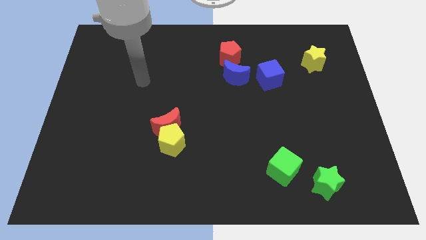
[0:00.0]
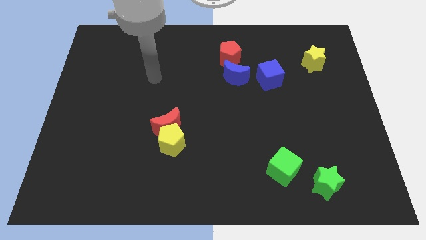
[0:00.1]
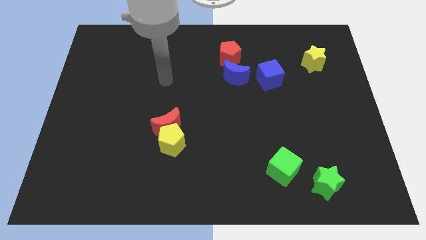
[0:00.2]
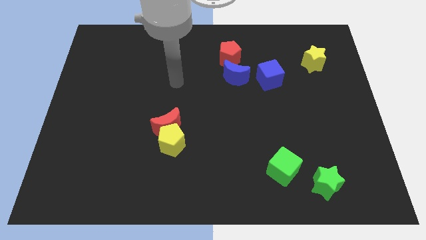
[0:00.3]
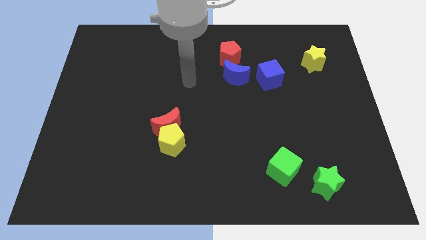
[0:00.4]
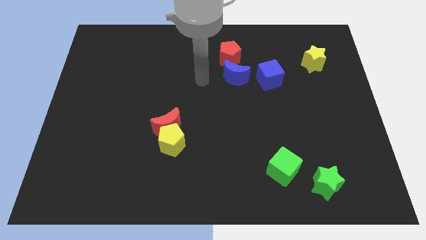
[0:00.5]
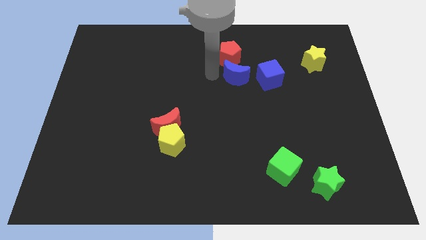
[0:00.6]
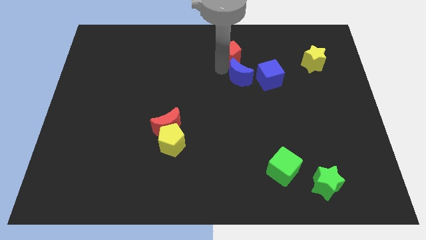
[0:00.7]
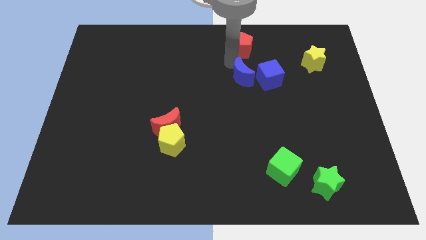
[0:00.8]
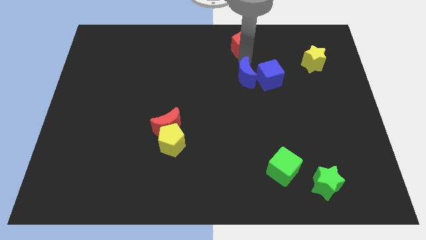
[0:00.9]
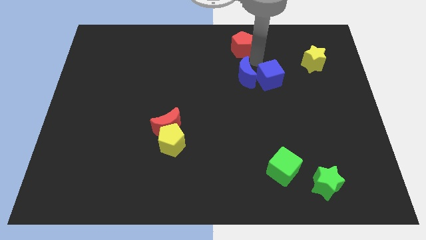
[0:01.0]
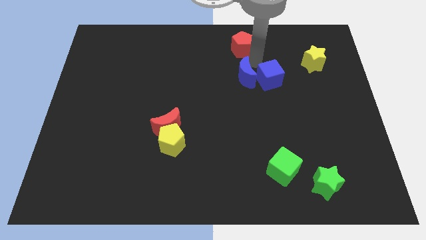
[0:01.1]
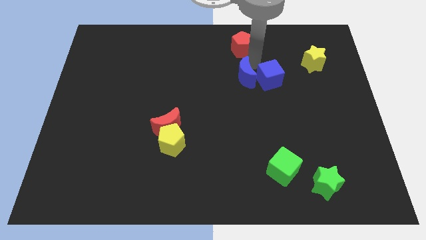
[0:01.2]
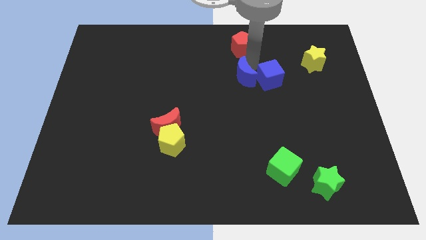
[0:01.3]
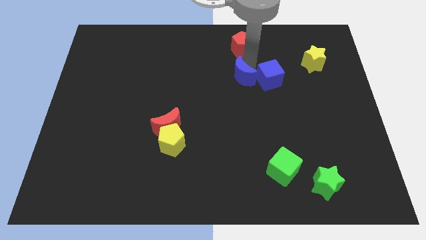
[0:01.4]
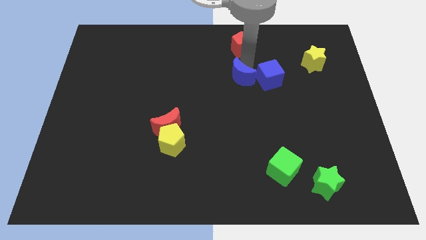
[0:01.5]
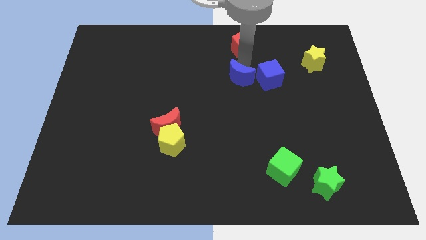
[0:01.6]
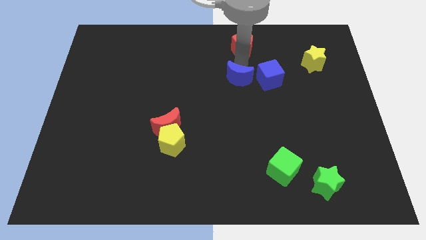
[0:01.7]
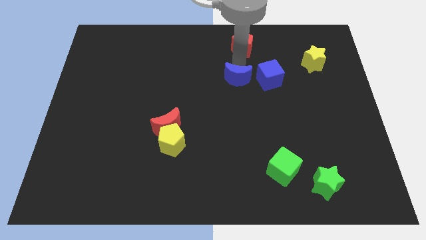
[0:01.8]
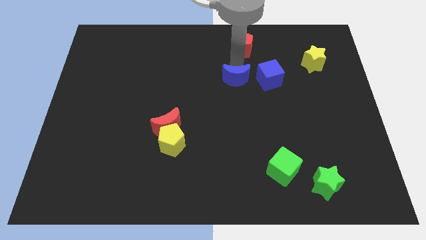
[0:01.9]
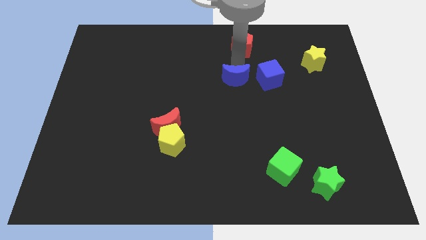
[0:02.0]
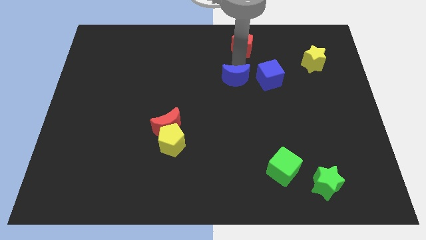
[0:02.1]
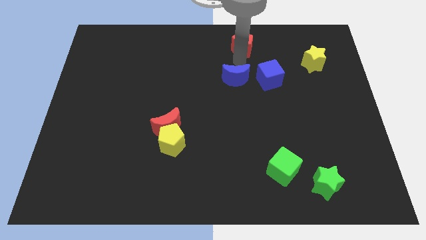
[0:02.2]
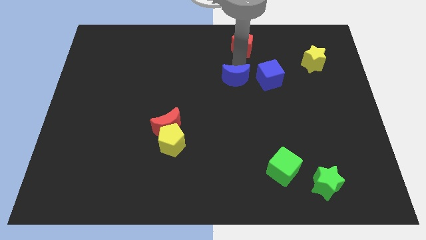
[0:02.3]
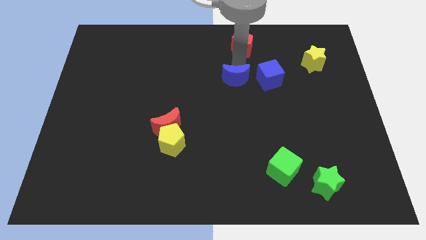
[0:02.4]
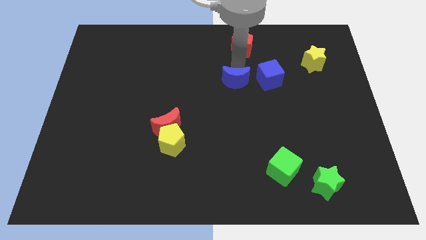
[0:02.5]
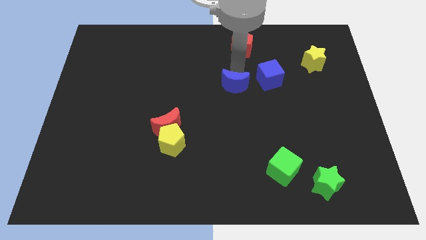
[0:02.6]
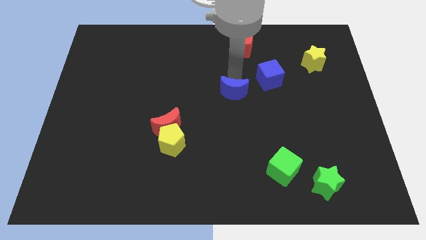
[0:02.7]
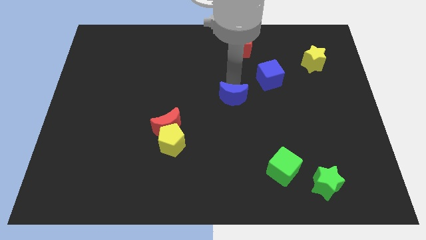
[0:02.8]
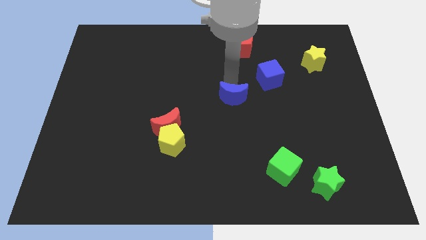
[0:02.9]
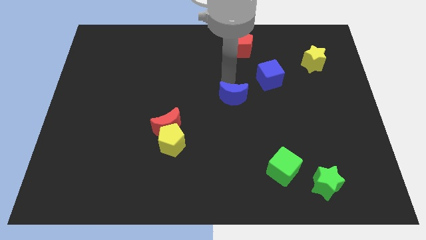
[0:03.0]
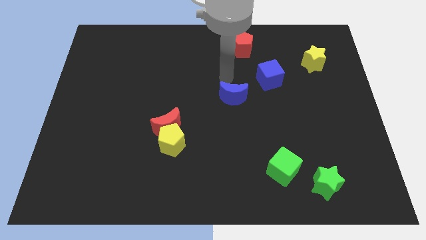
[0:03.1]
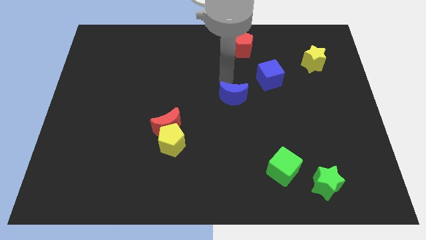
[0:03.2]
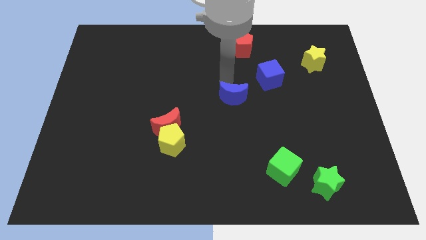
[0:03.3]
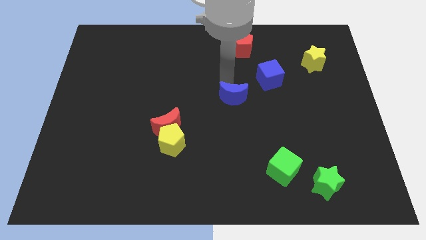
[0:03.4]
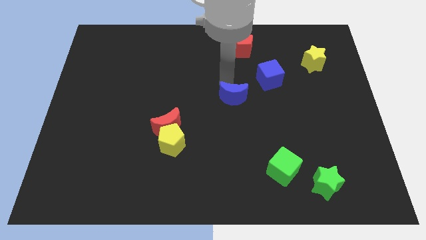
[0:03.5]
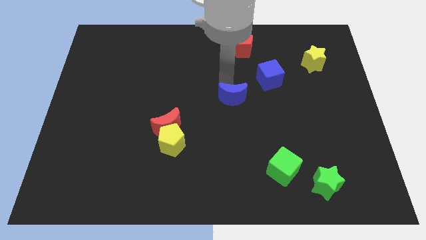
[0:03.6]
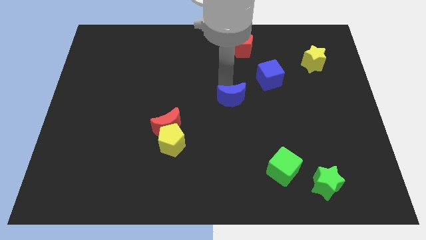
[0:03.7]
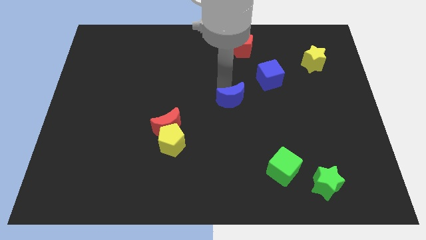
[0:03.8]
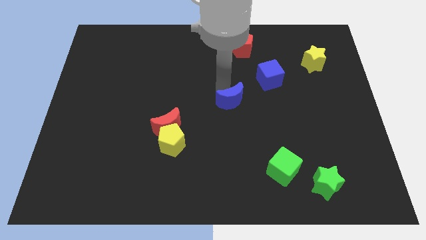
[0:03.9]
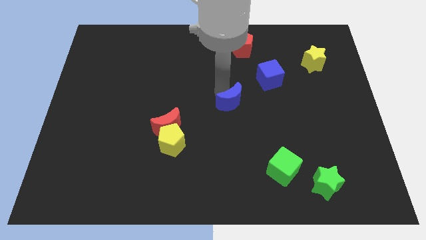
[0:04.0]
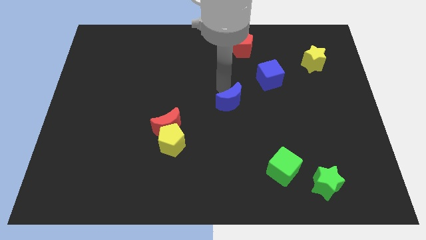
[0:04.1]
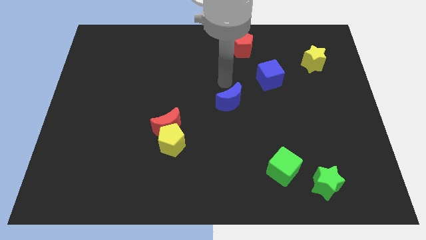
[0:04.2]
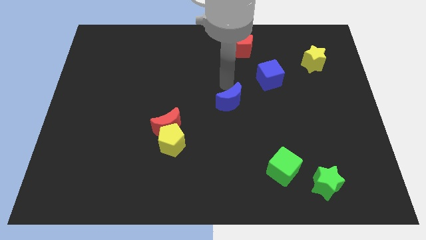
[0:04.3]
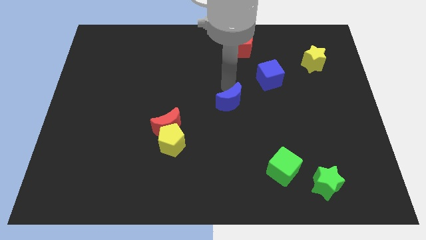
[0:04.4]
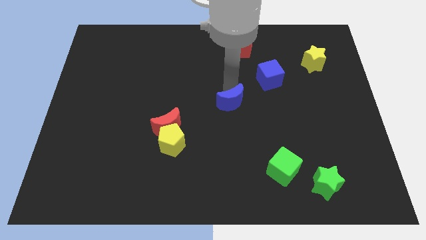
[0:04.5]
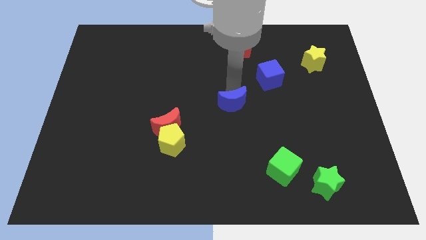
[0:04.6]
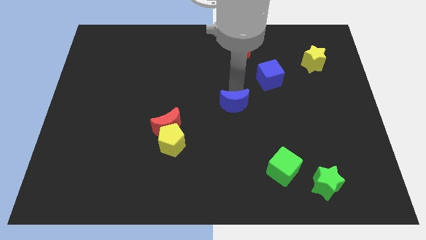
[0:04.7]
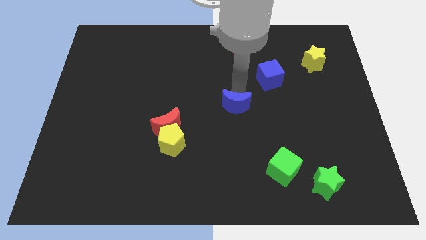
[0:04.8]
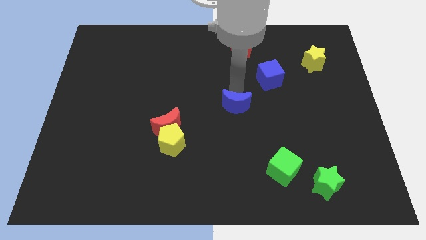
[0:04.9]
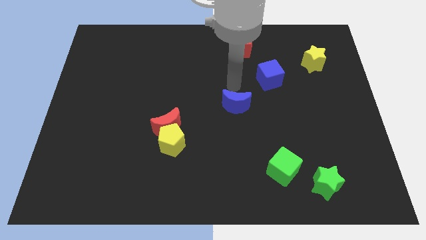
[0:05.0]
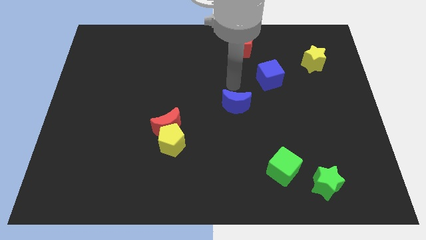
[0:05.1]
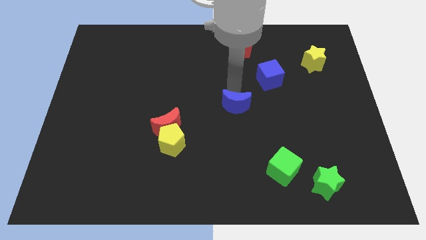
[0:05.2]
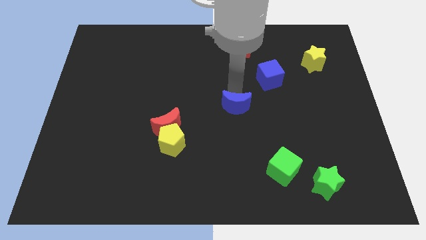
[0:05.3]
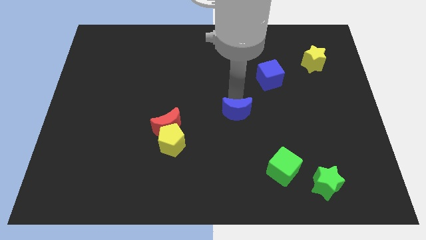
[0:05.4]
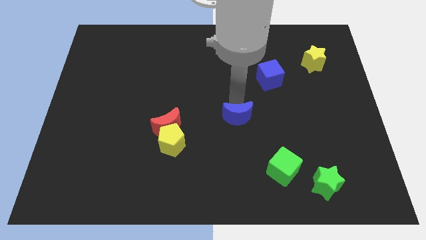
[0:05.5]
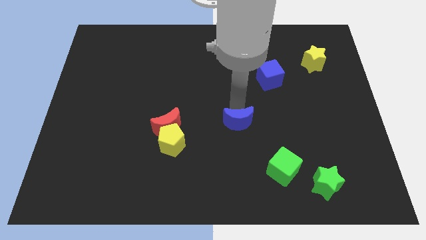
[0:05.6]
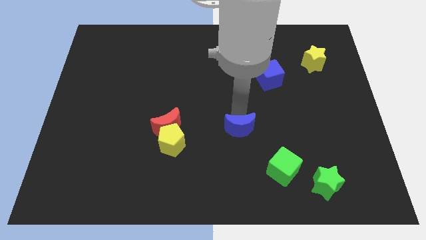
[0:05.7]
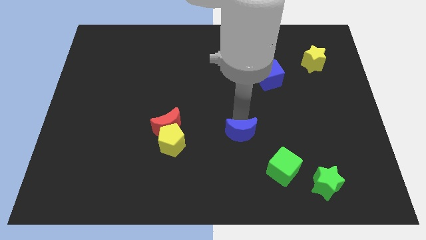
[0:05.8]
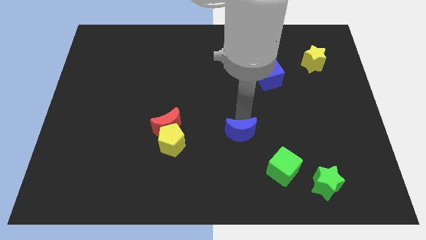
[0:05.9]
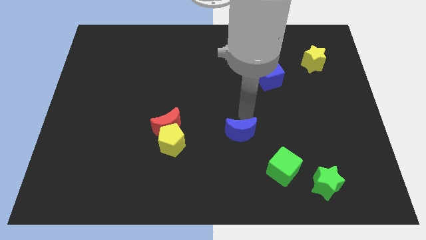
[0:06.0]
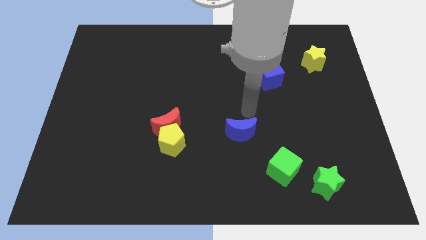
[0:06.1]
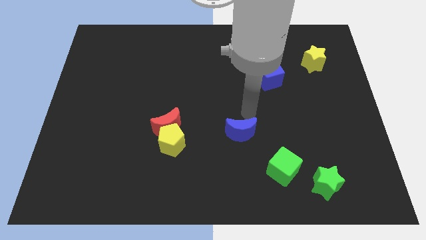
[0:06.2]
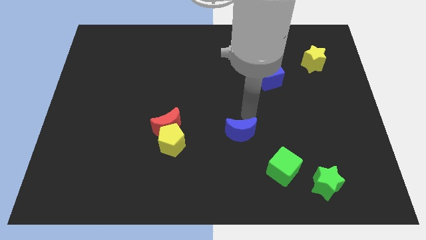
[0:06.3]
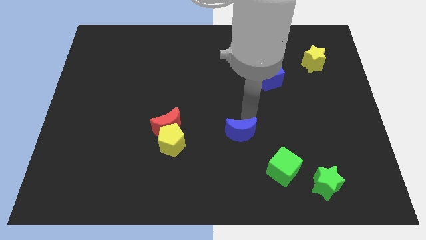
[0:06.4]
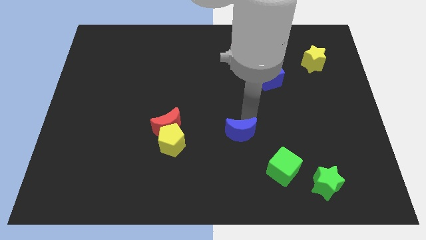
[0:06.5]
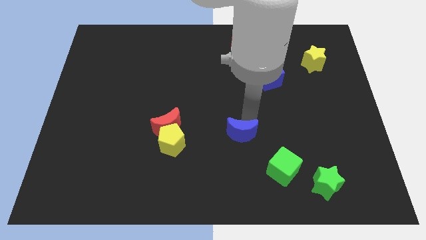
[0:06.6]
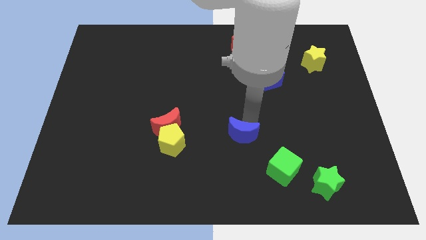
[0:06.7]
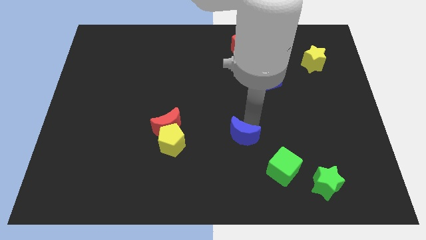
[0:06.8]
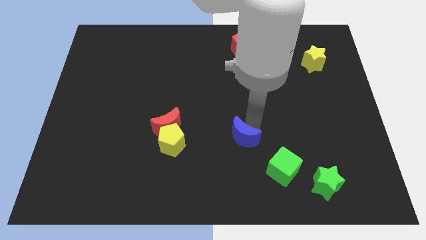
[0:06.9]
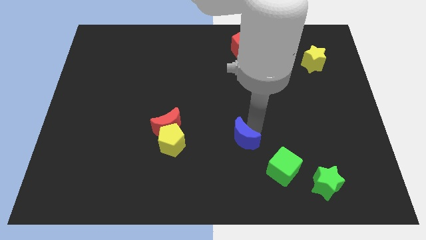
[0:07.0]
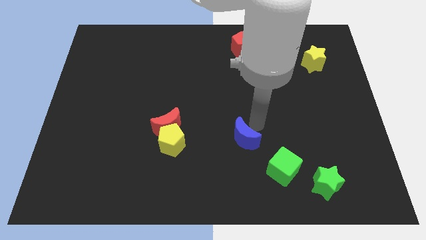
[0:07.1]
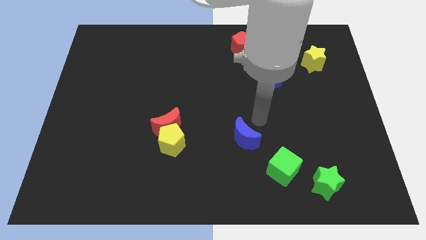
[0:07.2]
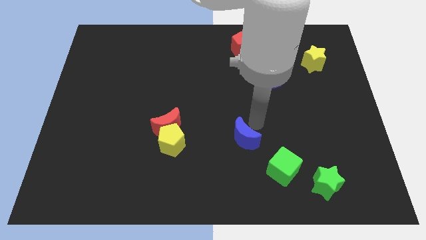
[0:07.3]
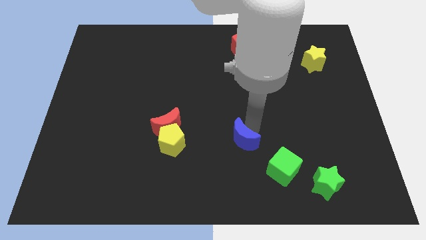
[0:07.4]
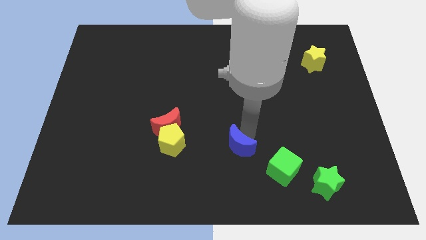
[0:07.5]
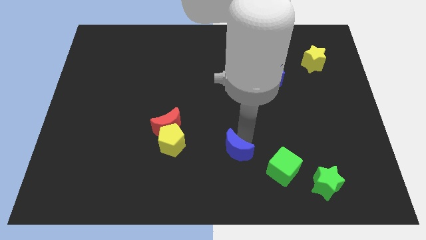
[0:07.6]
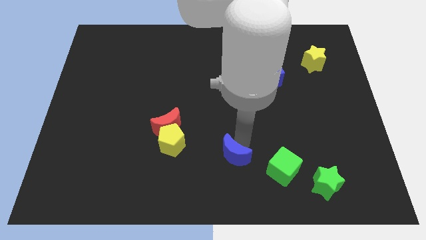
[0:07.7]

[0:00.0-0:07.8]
move the blue moon to the bottom side
